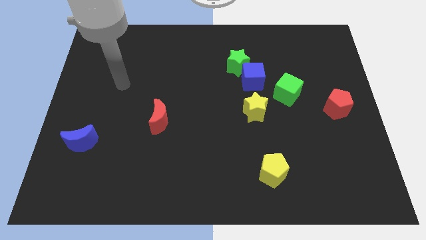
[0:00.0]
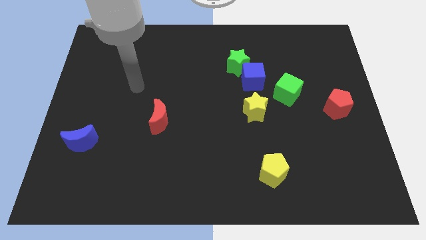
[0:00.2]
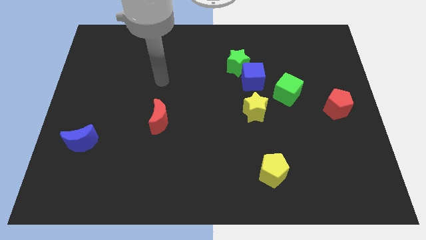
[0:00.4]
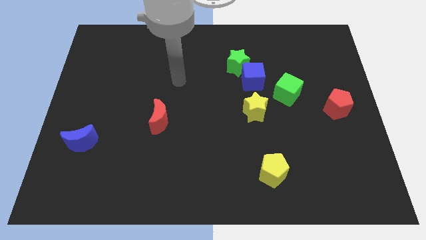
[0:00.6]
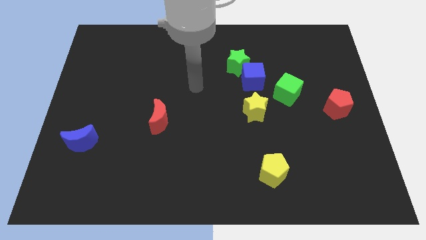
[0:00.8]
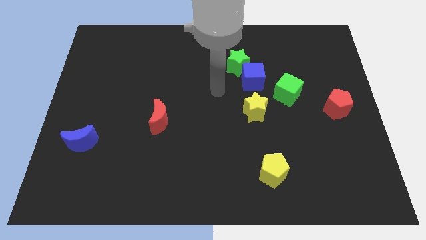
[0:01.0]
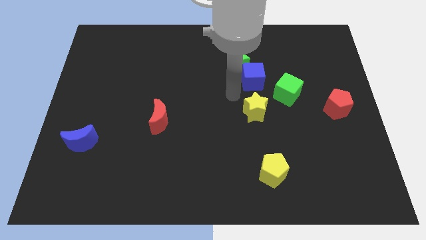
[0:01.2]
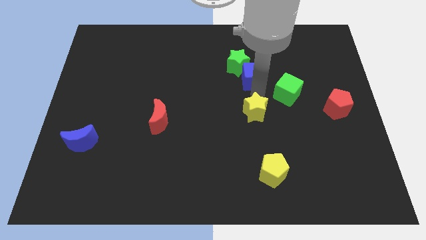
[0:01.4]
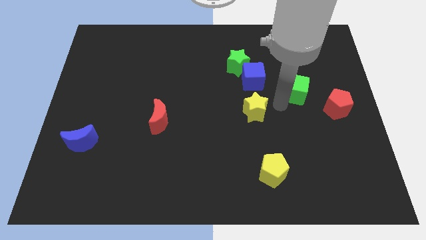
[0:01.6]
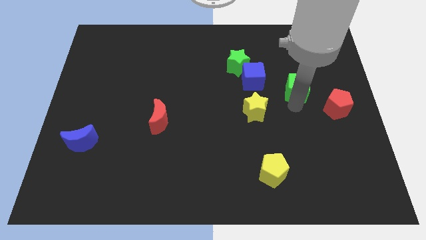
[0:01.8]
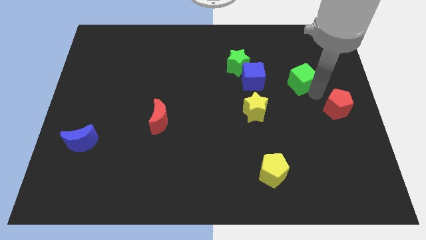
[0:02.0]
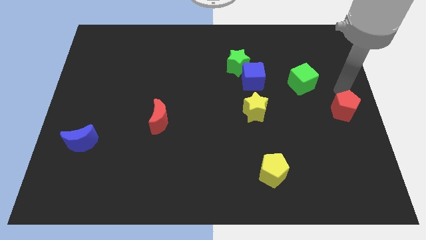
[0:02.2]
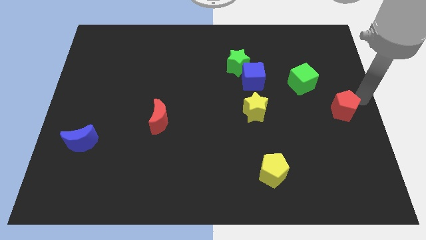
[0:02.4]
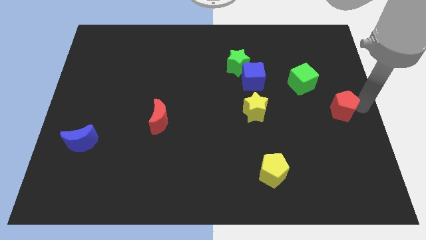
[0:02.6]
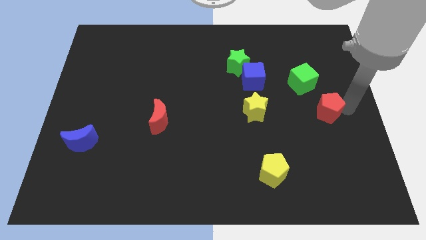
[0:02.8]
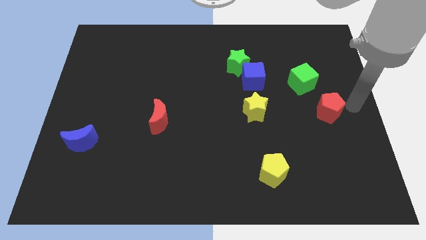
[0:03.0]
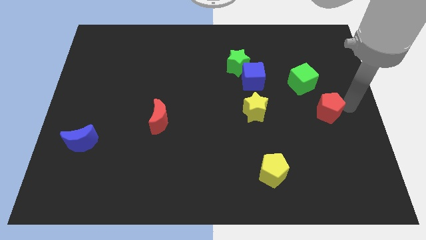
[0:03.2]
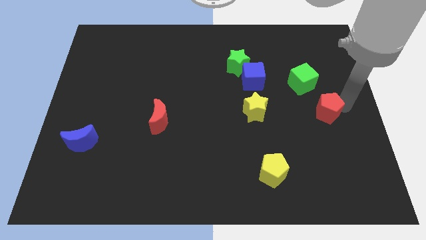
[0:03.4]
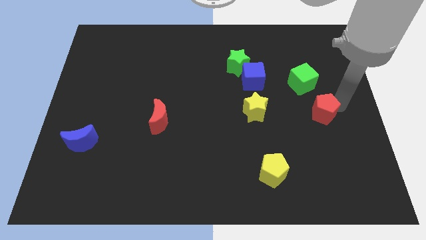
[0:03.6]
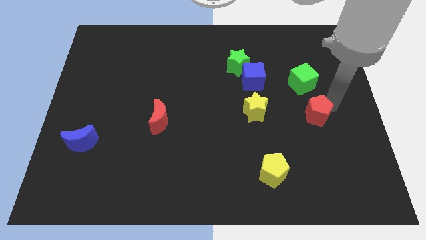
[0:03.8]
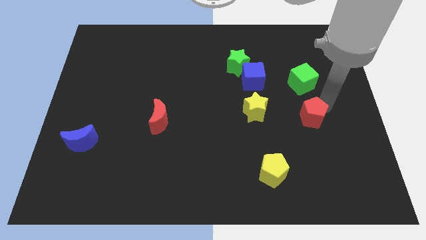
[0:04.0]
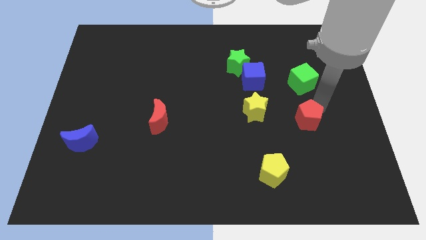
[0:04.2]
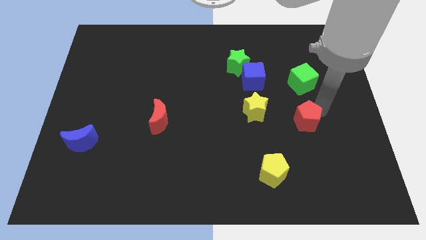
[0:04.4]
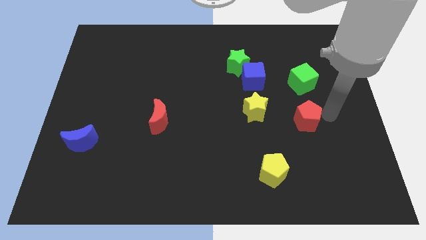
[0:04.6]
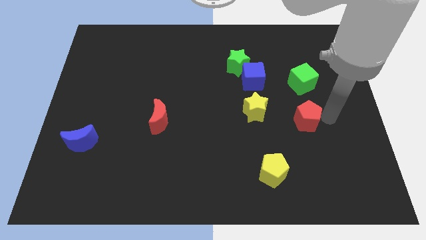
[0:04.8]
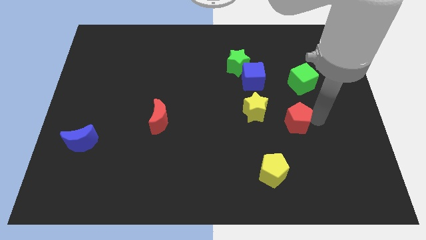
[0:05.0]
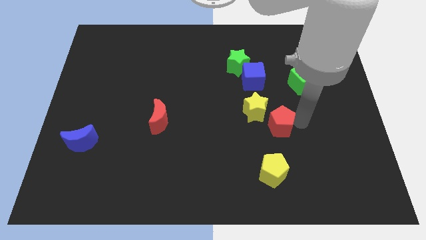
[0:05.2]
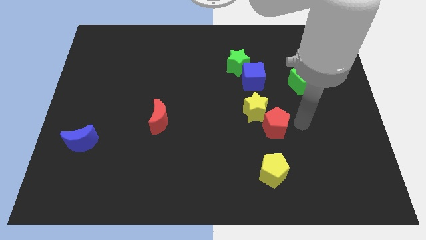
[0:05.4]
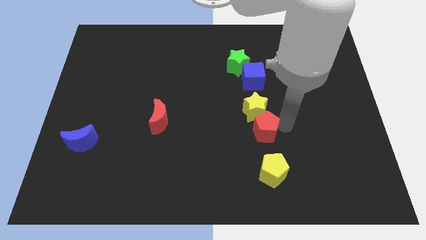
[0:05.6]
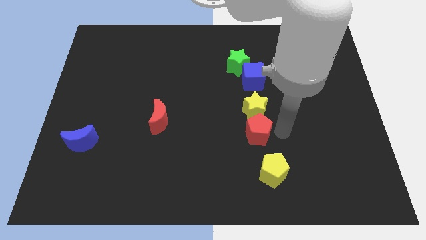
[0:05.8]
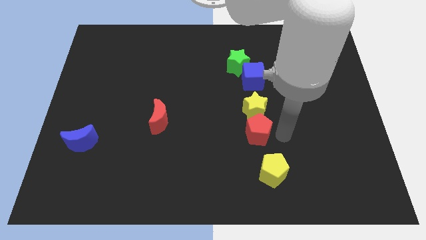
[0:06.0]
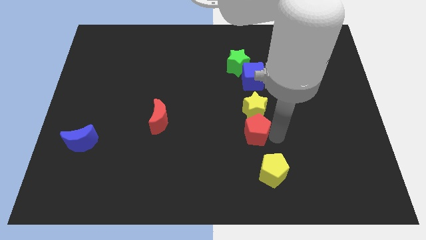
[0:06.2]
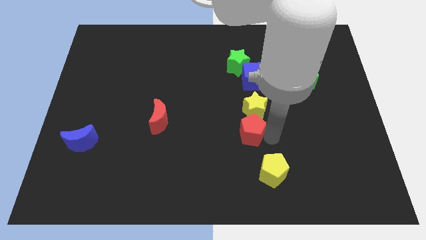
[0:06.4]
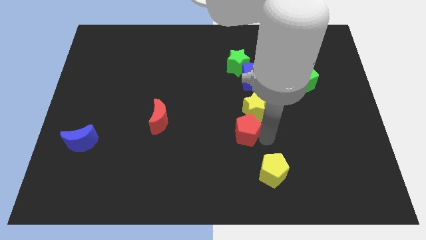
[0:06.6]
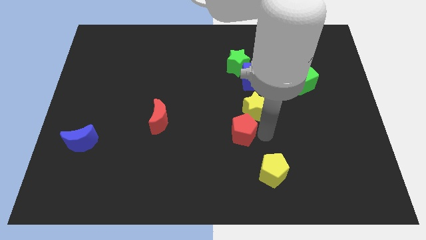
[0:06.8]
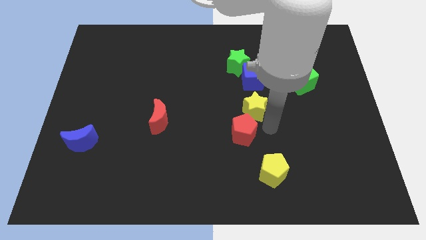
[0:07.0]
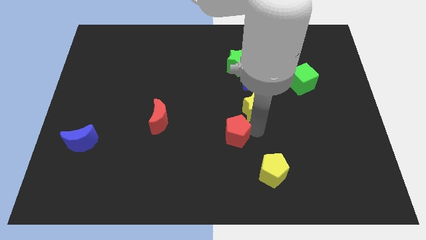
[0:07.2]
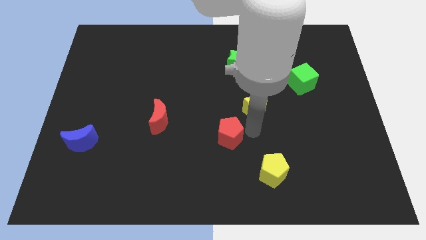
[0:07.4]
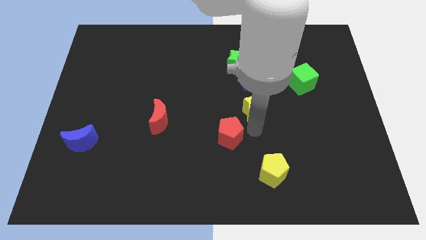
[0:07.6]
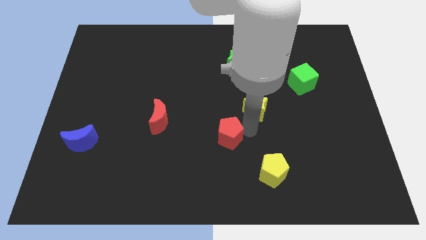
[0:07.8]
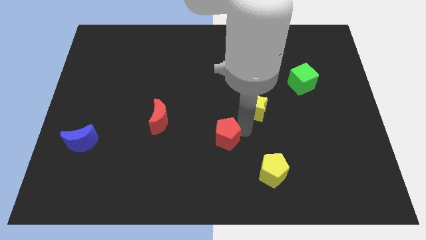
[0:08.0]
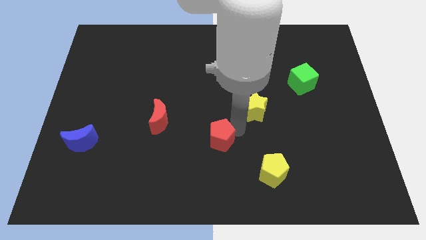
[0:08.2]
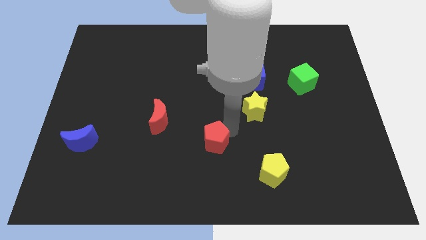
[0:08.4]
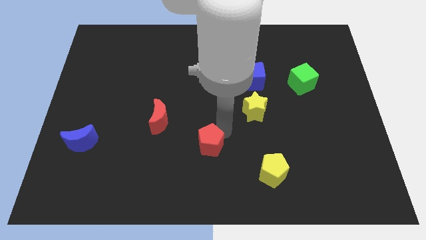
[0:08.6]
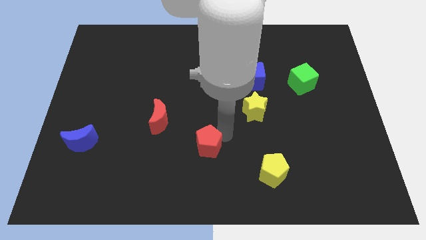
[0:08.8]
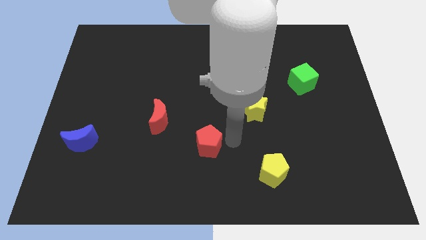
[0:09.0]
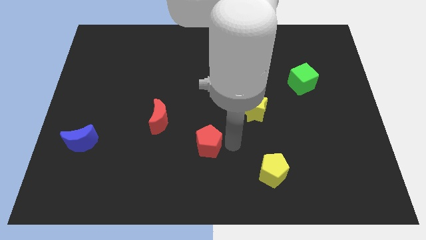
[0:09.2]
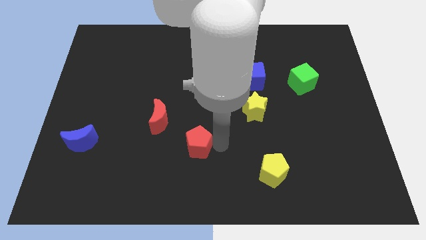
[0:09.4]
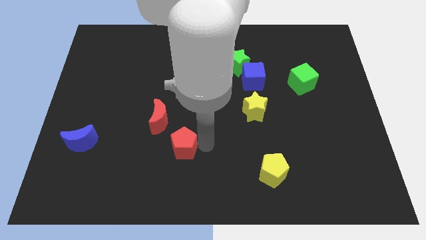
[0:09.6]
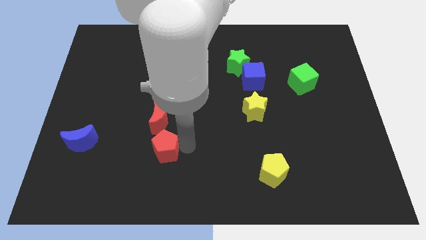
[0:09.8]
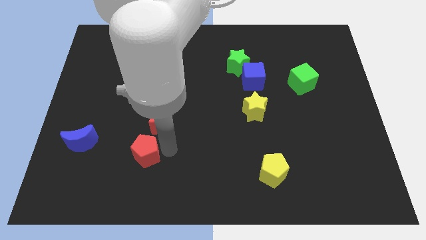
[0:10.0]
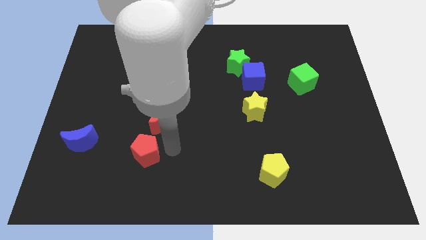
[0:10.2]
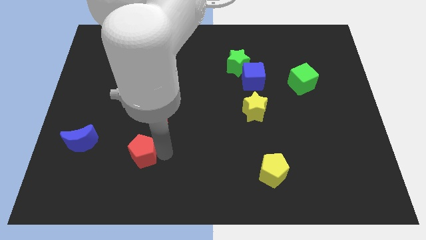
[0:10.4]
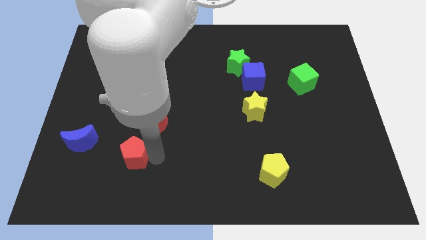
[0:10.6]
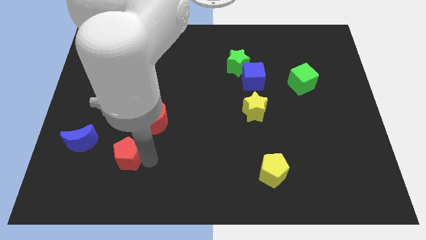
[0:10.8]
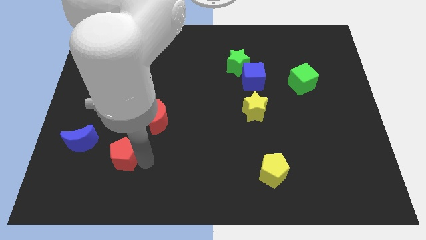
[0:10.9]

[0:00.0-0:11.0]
put the red pentagon to the bottom right of the blue moon

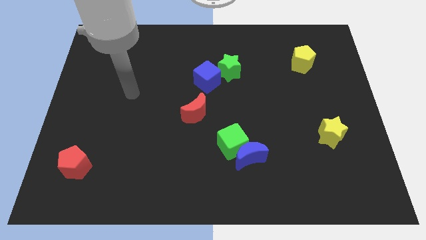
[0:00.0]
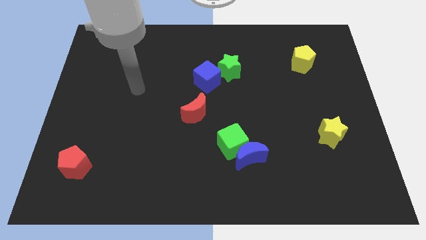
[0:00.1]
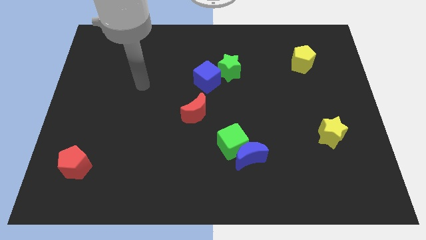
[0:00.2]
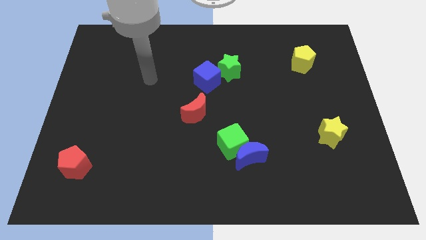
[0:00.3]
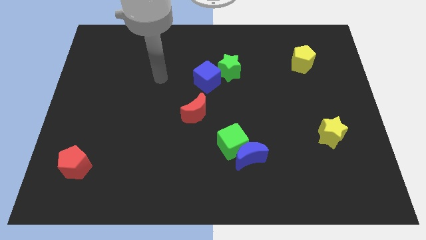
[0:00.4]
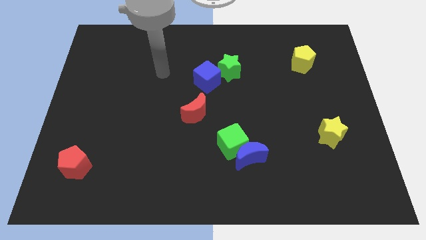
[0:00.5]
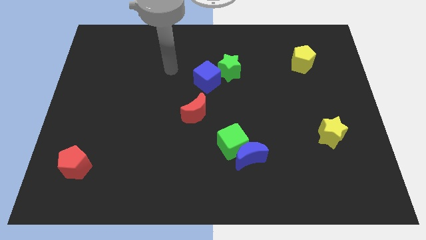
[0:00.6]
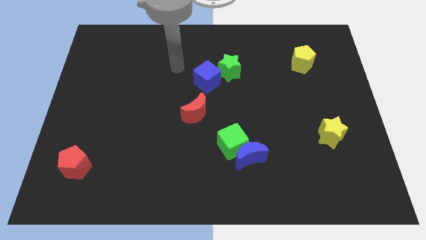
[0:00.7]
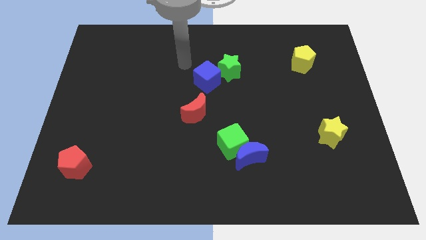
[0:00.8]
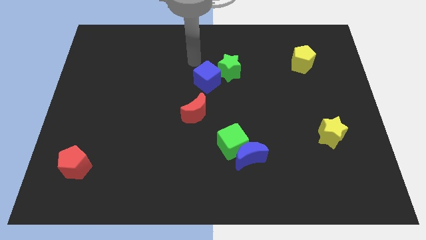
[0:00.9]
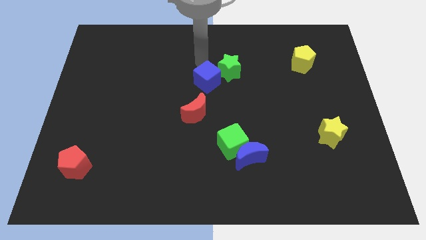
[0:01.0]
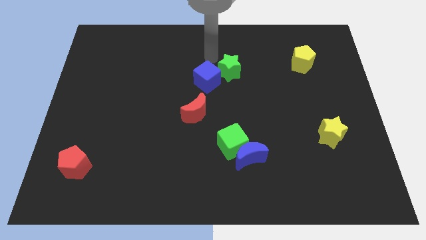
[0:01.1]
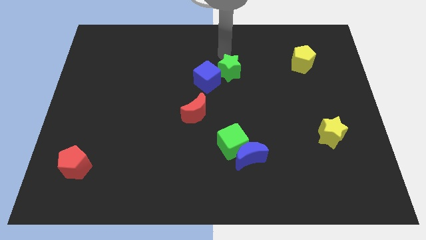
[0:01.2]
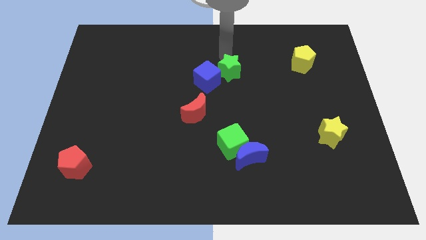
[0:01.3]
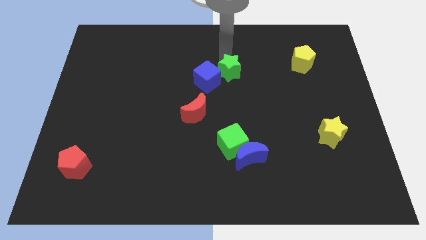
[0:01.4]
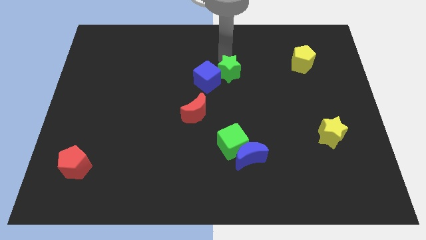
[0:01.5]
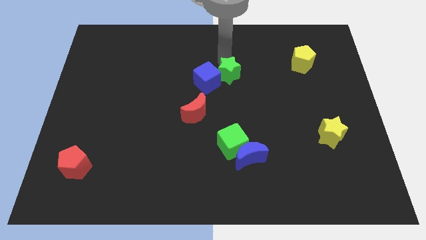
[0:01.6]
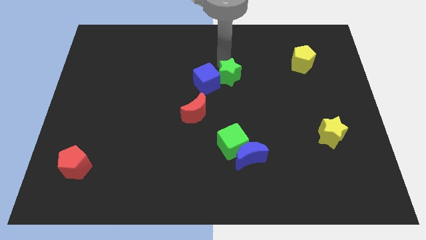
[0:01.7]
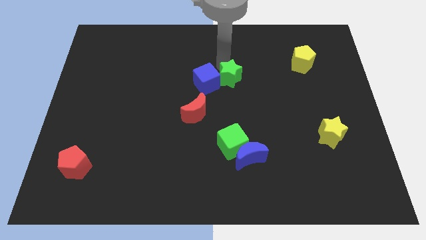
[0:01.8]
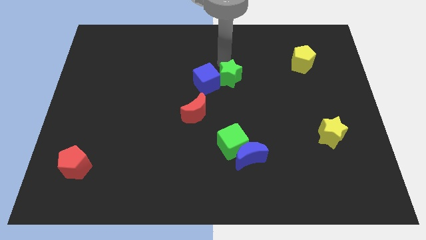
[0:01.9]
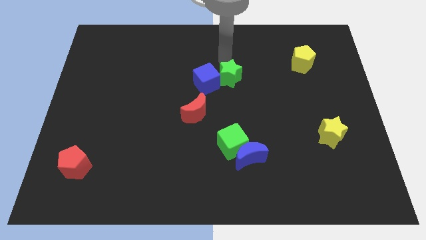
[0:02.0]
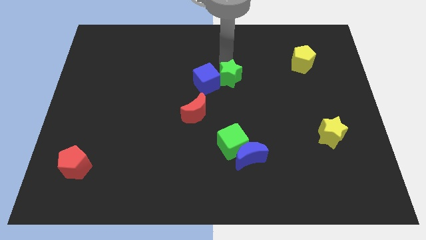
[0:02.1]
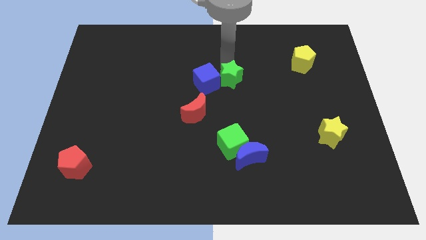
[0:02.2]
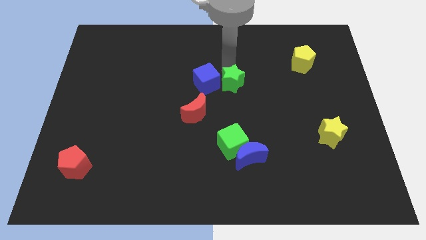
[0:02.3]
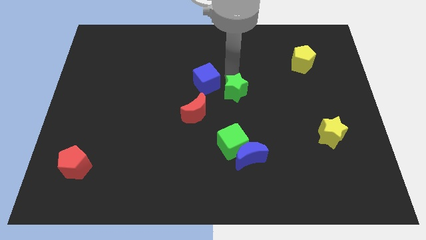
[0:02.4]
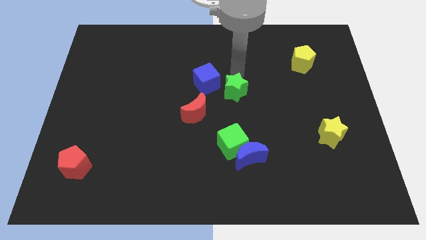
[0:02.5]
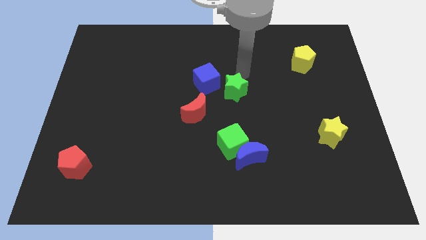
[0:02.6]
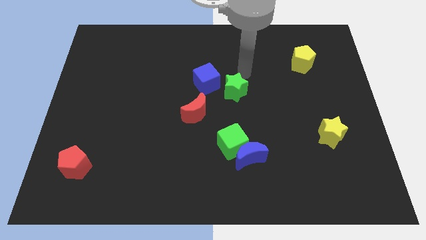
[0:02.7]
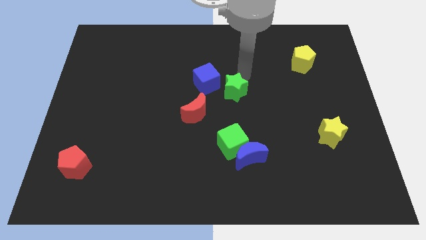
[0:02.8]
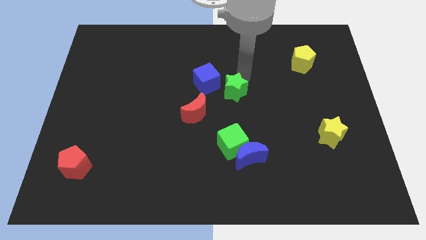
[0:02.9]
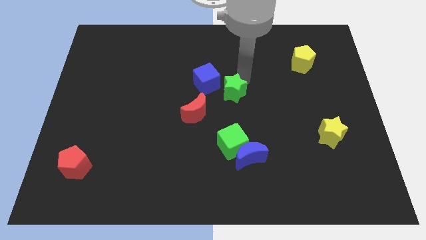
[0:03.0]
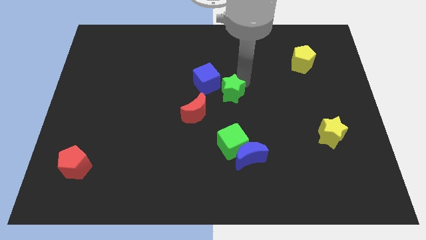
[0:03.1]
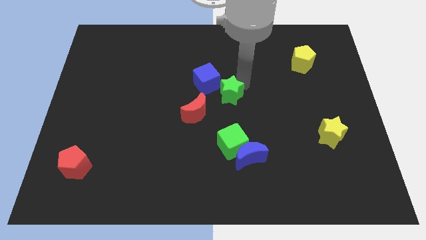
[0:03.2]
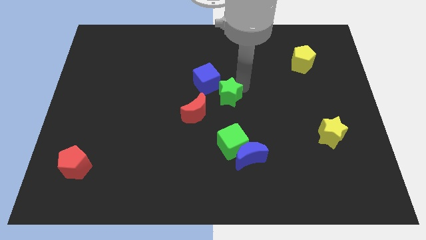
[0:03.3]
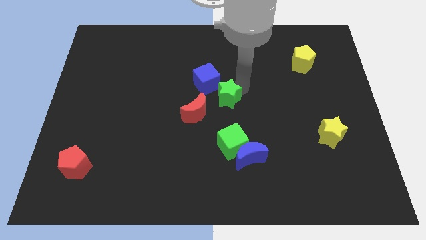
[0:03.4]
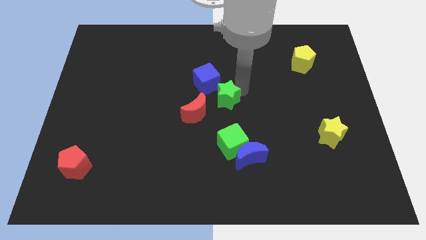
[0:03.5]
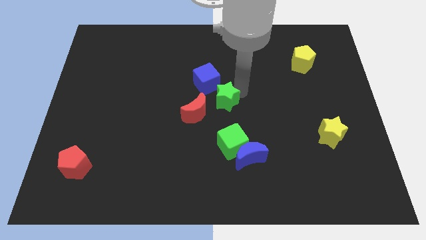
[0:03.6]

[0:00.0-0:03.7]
put the green star below the blue cube
